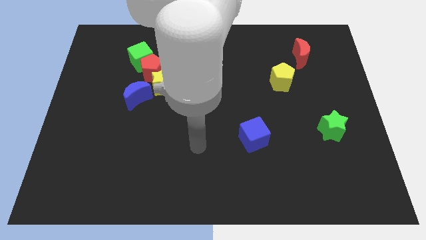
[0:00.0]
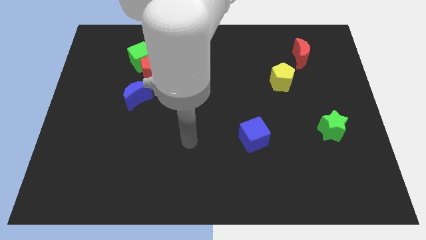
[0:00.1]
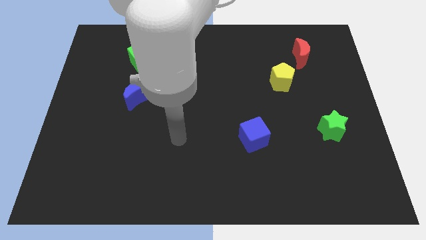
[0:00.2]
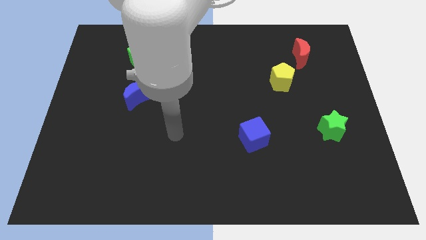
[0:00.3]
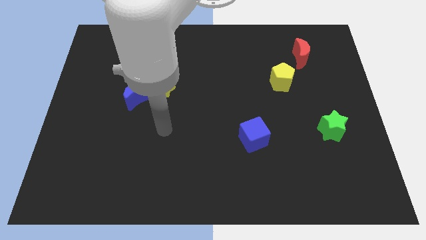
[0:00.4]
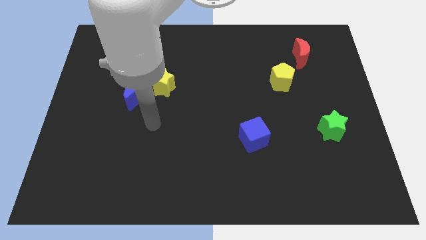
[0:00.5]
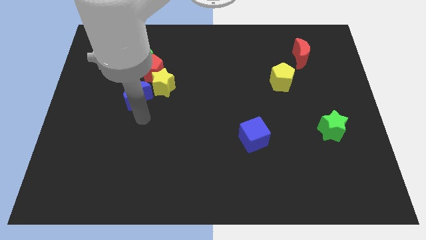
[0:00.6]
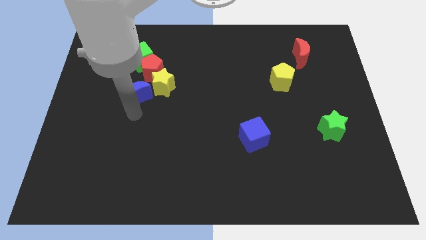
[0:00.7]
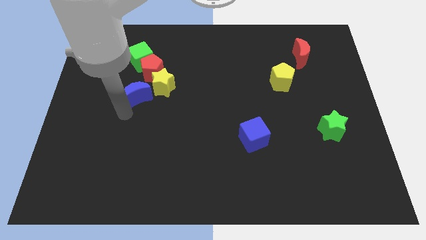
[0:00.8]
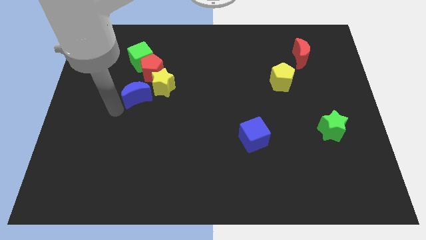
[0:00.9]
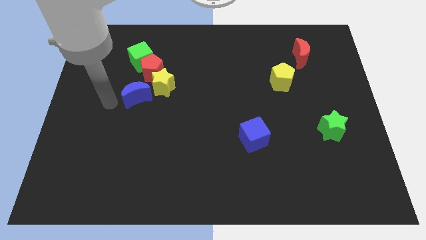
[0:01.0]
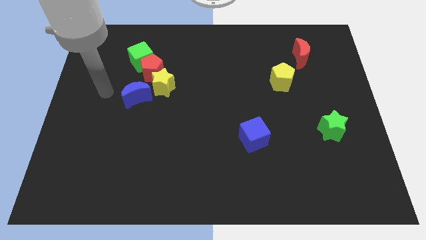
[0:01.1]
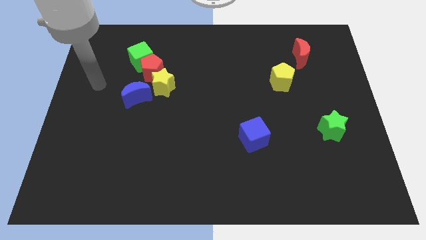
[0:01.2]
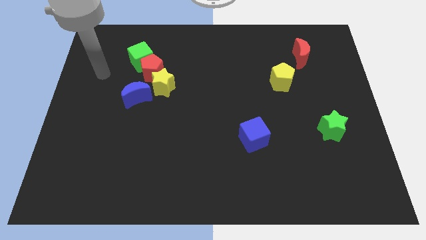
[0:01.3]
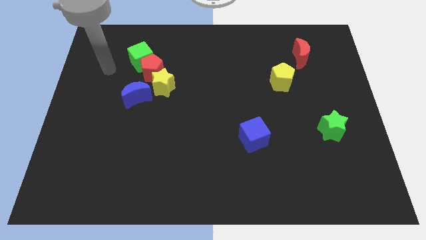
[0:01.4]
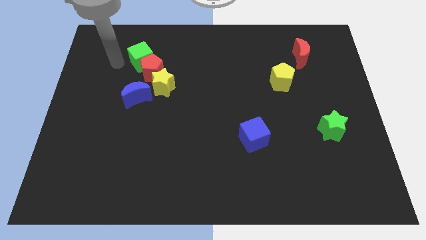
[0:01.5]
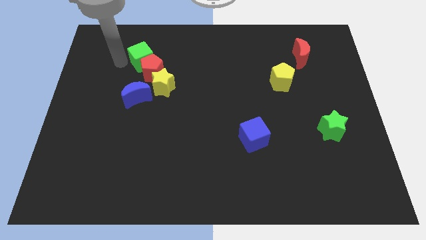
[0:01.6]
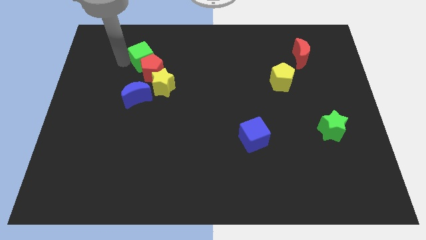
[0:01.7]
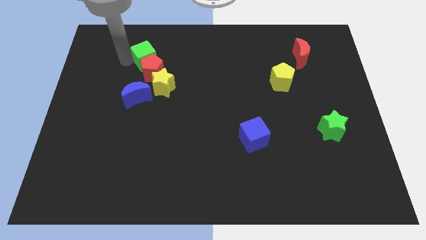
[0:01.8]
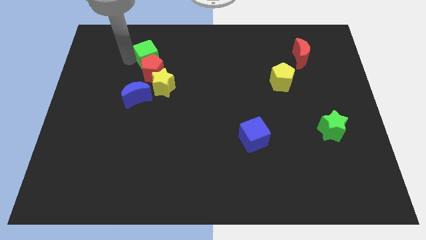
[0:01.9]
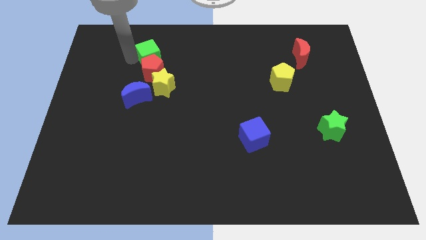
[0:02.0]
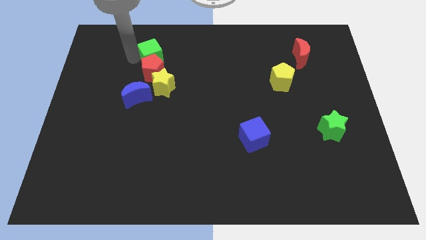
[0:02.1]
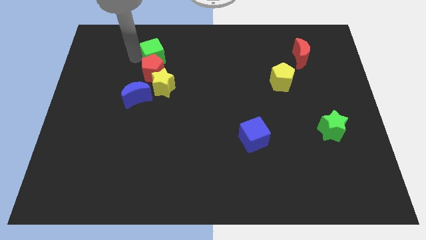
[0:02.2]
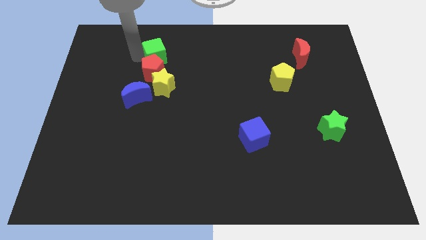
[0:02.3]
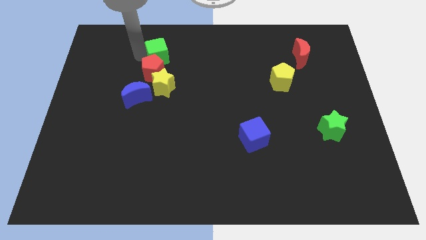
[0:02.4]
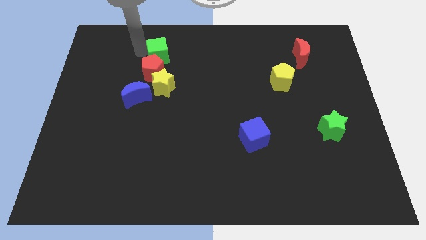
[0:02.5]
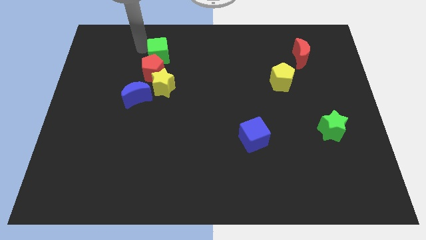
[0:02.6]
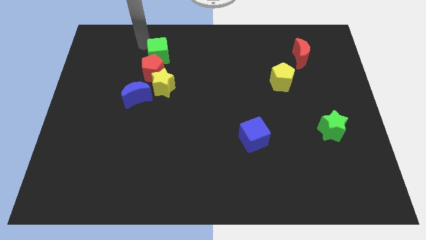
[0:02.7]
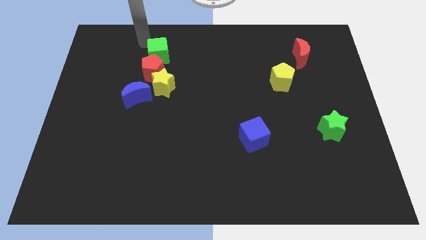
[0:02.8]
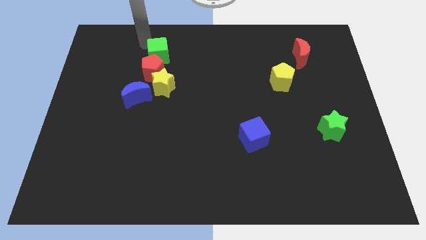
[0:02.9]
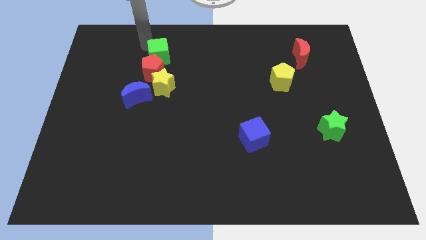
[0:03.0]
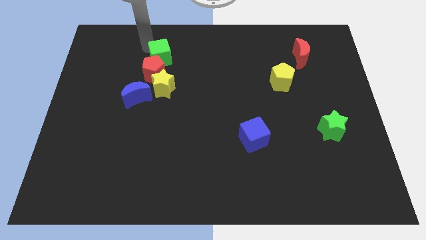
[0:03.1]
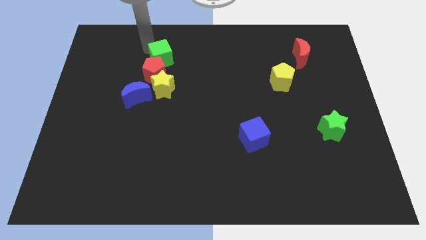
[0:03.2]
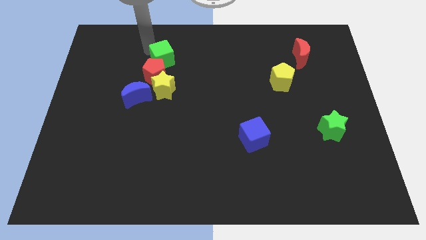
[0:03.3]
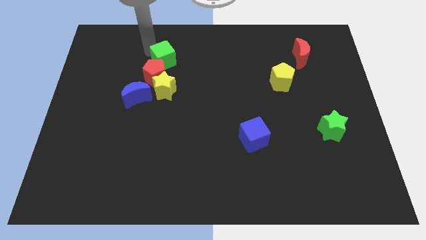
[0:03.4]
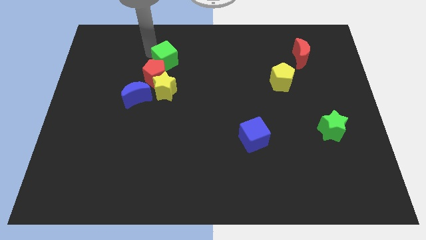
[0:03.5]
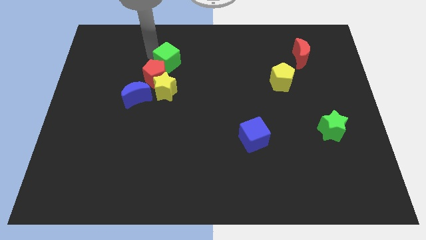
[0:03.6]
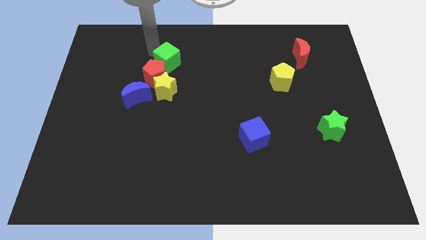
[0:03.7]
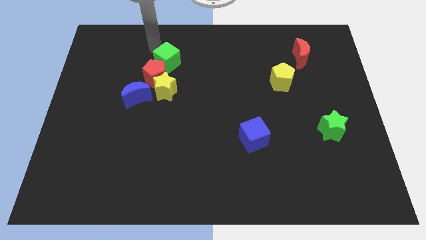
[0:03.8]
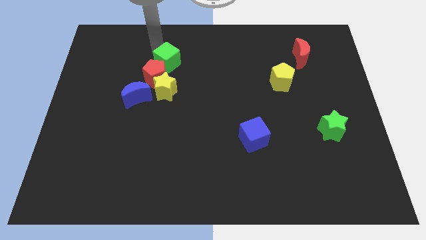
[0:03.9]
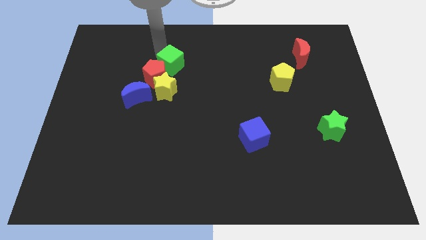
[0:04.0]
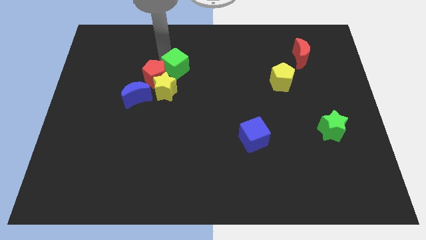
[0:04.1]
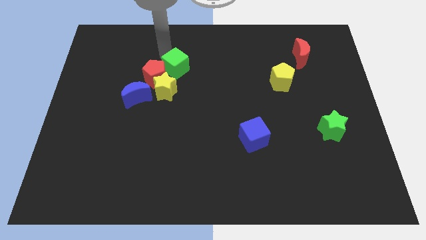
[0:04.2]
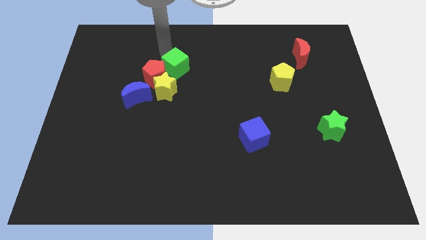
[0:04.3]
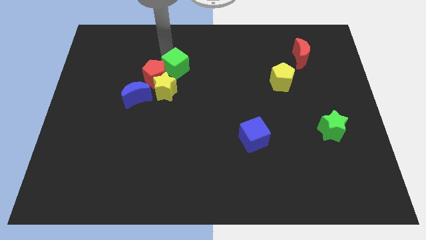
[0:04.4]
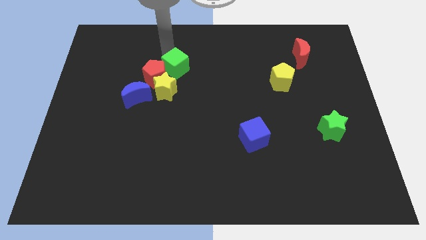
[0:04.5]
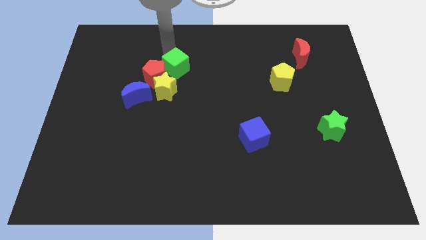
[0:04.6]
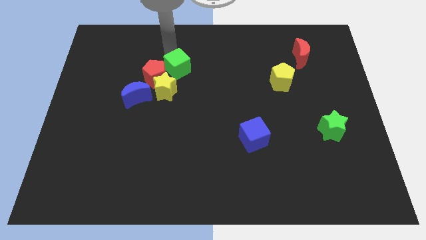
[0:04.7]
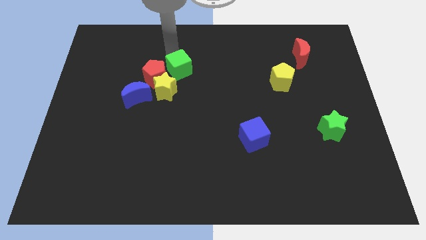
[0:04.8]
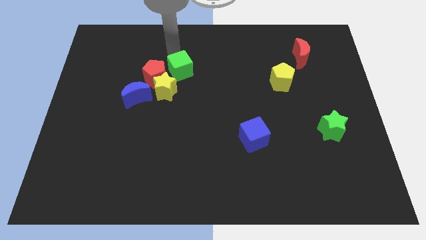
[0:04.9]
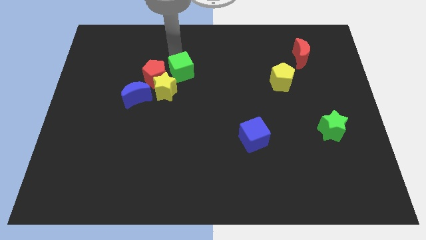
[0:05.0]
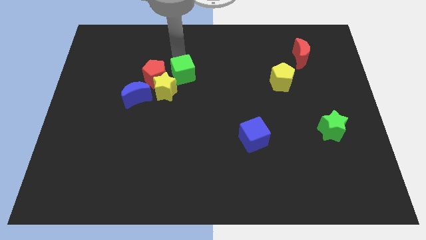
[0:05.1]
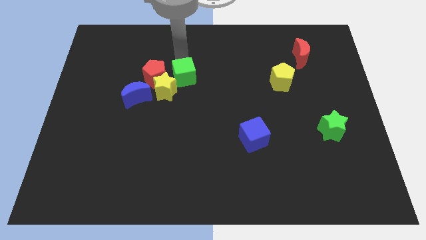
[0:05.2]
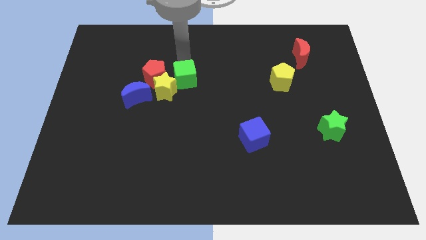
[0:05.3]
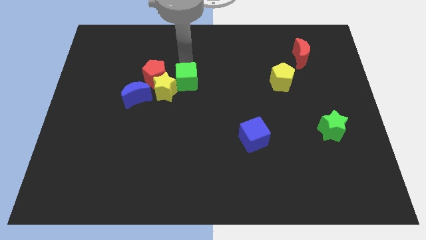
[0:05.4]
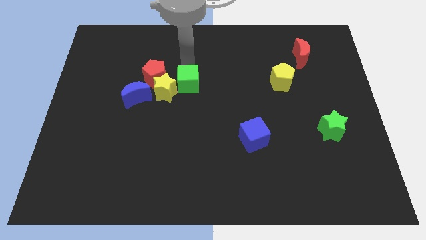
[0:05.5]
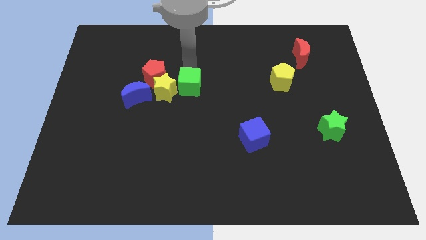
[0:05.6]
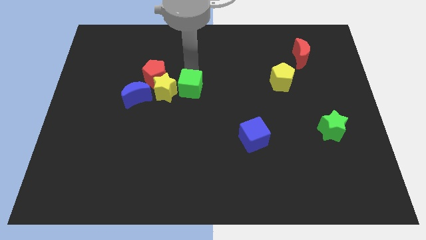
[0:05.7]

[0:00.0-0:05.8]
put the green cube to the bottom right of the yellow star

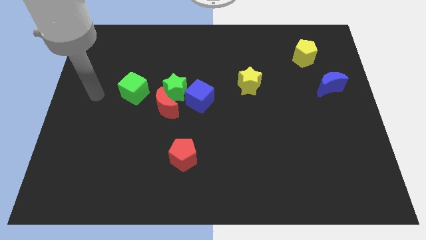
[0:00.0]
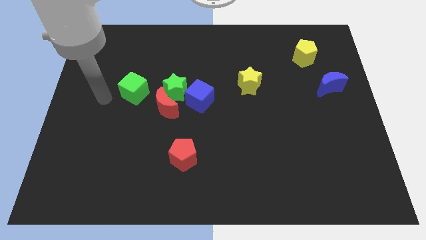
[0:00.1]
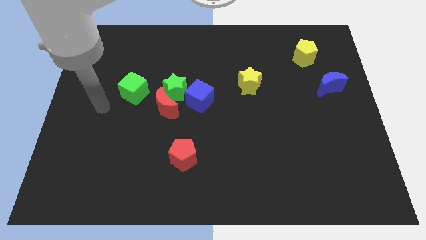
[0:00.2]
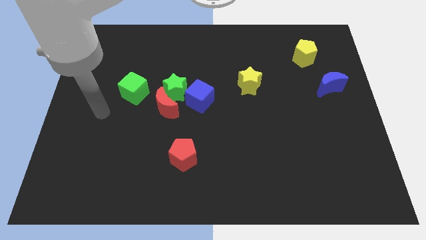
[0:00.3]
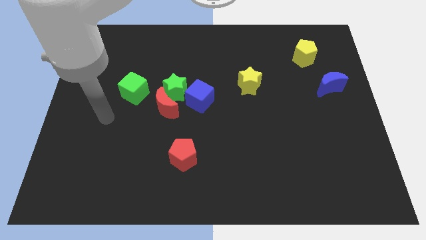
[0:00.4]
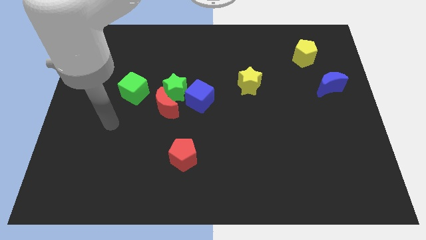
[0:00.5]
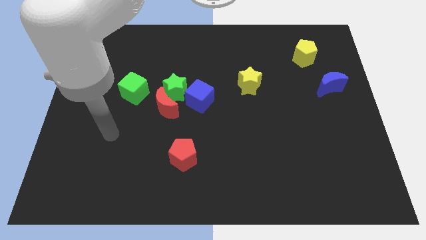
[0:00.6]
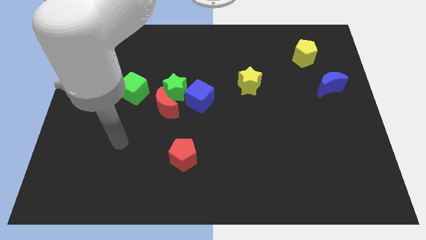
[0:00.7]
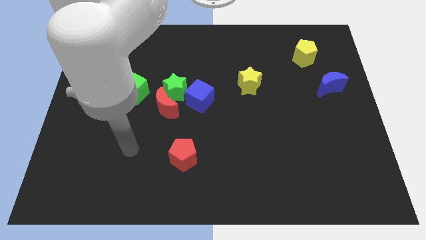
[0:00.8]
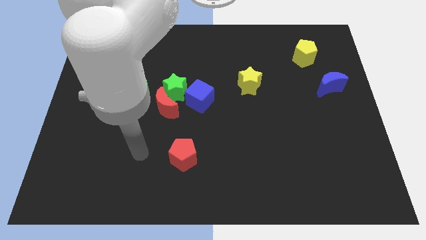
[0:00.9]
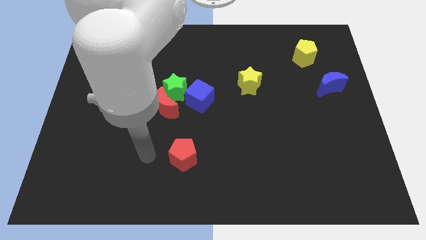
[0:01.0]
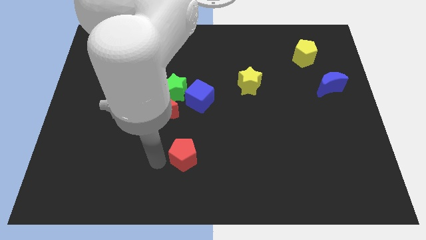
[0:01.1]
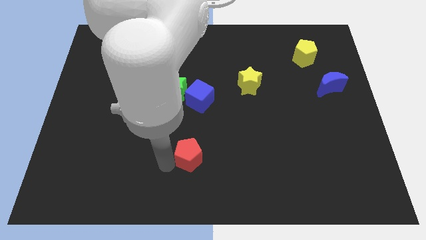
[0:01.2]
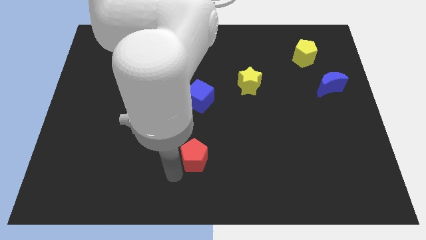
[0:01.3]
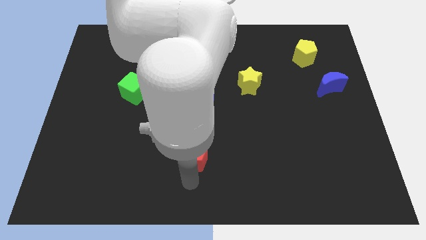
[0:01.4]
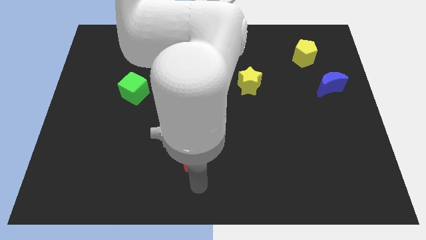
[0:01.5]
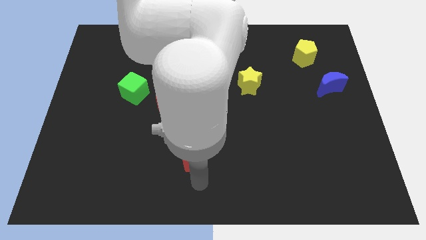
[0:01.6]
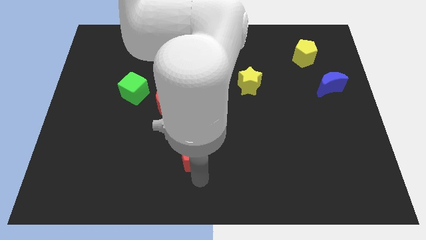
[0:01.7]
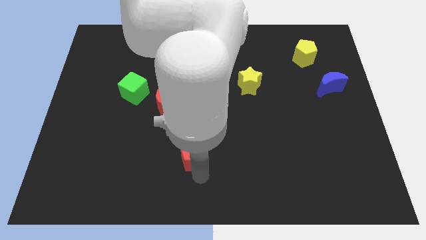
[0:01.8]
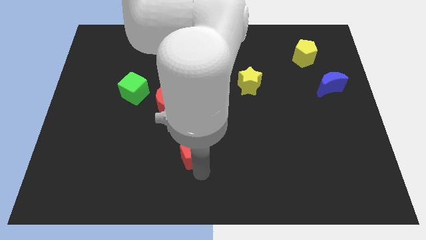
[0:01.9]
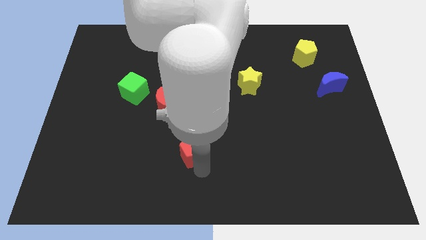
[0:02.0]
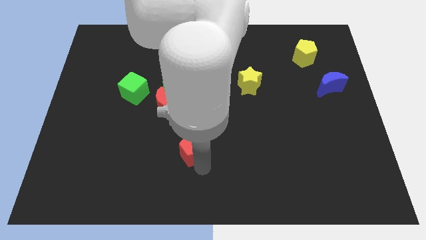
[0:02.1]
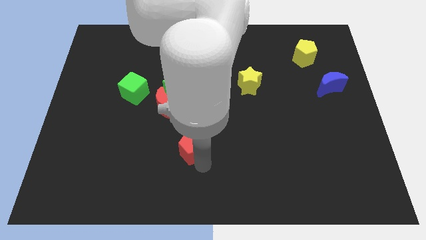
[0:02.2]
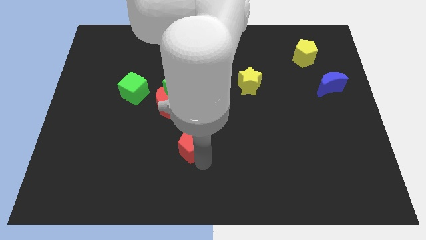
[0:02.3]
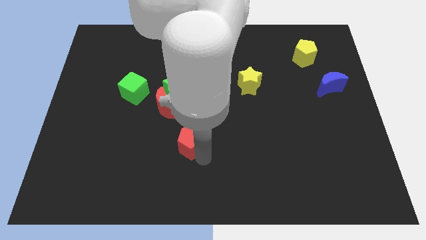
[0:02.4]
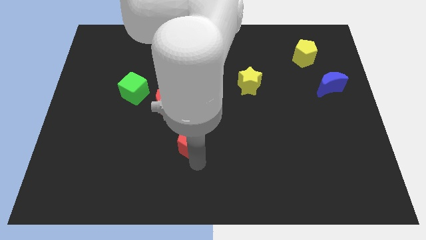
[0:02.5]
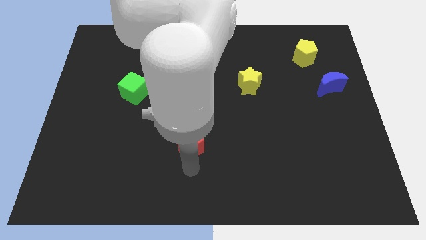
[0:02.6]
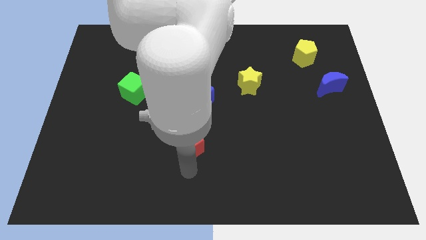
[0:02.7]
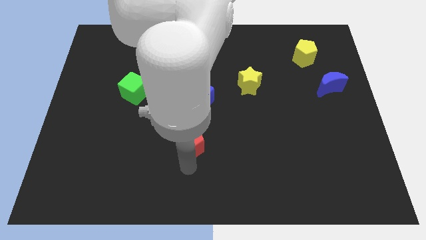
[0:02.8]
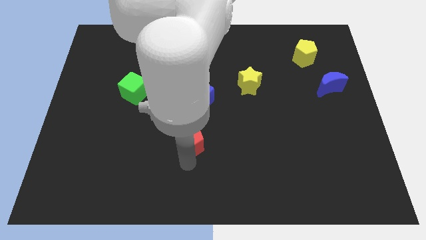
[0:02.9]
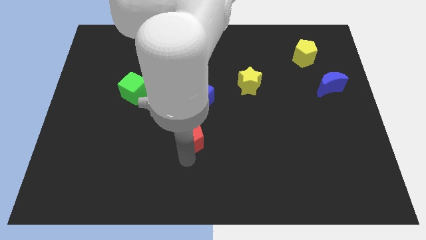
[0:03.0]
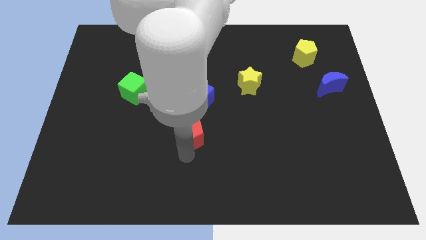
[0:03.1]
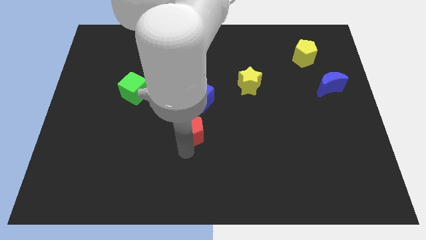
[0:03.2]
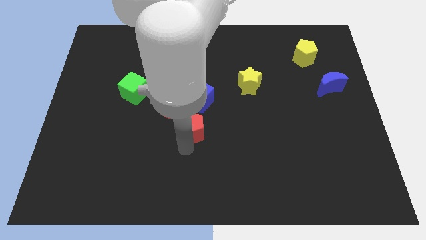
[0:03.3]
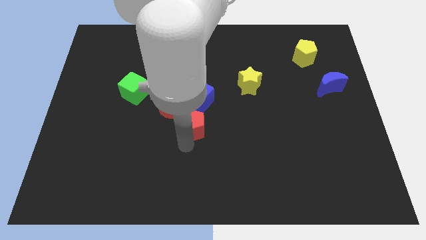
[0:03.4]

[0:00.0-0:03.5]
put the red pentagon to the bottom right side of the green star
